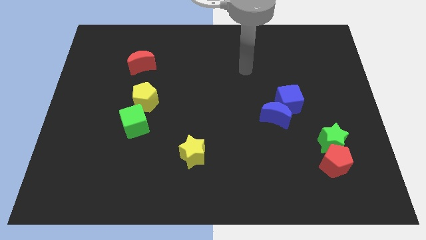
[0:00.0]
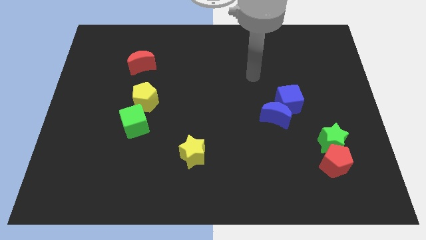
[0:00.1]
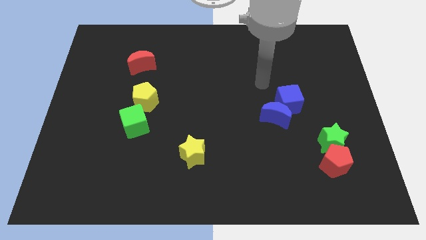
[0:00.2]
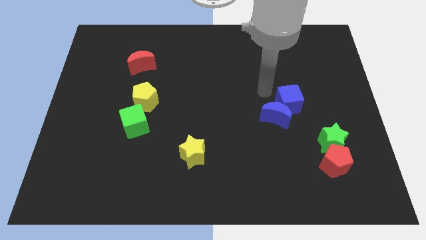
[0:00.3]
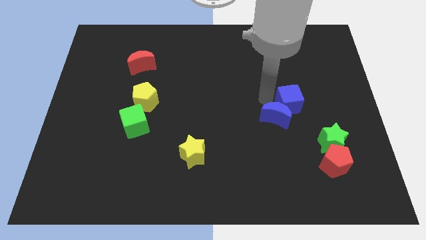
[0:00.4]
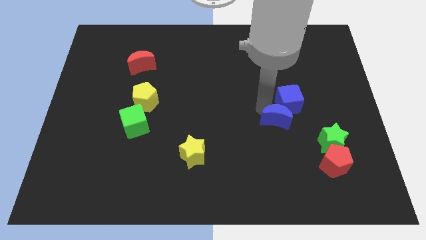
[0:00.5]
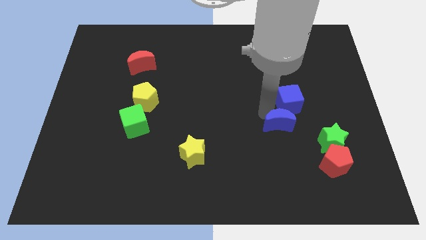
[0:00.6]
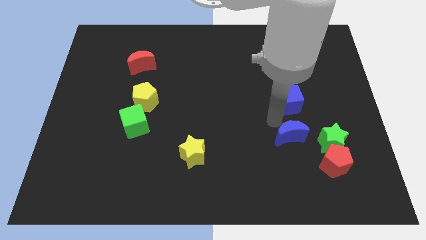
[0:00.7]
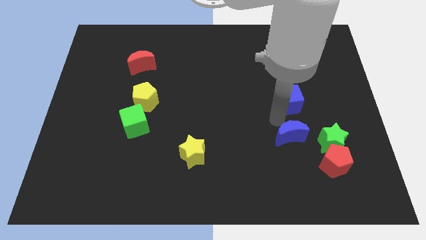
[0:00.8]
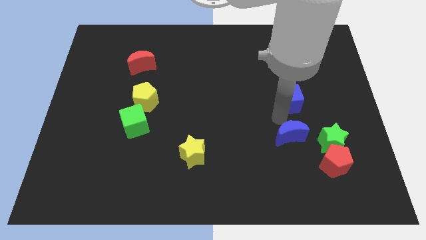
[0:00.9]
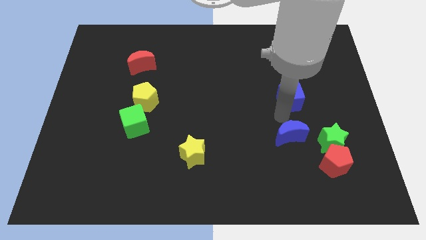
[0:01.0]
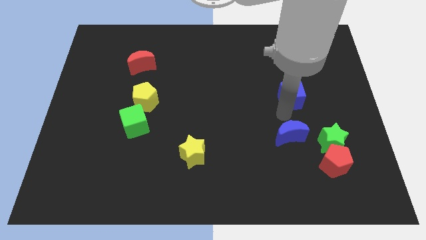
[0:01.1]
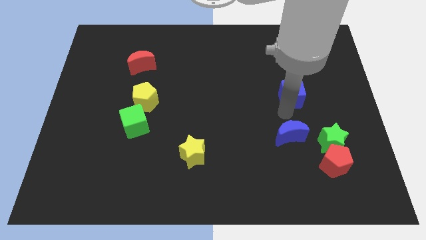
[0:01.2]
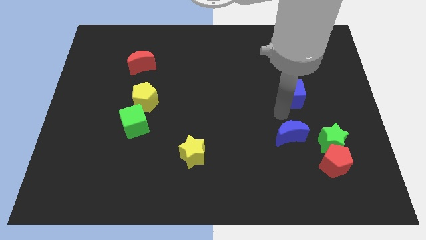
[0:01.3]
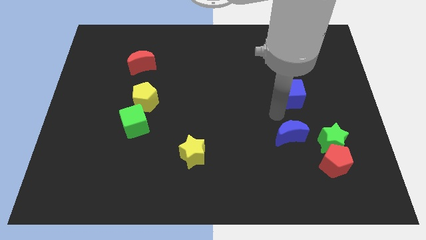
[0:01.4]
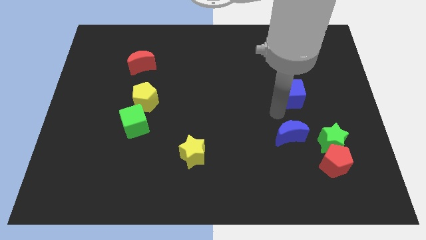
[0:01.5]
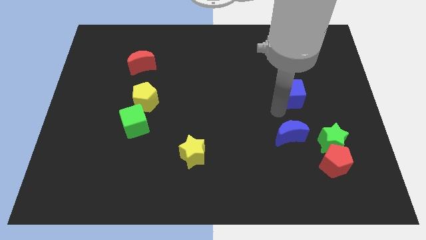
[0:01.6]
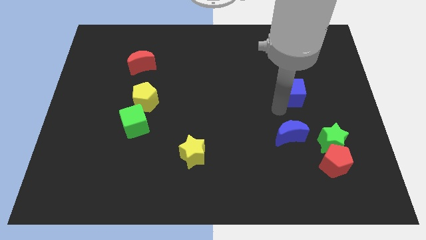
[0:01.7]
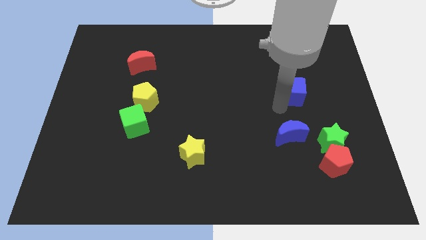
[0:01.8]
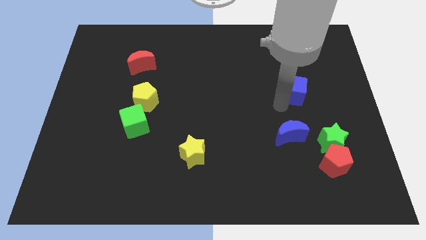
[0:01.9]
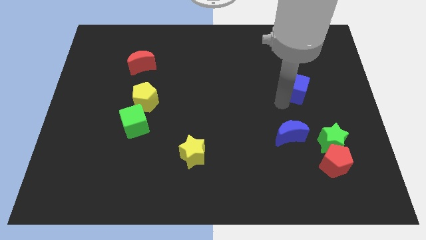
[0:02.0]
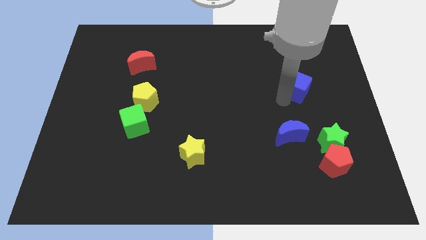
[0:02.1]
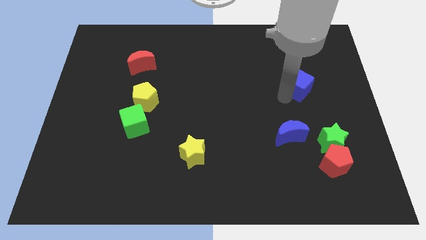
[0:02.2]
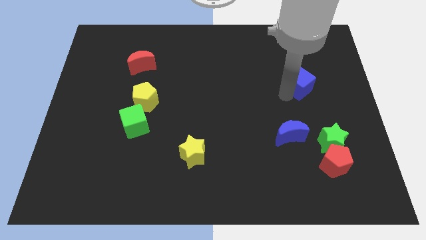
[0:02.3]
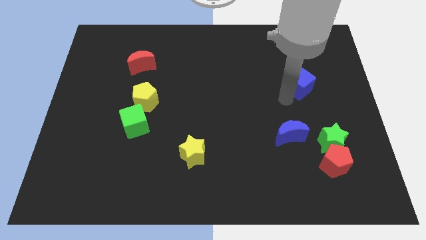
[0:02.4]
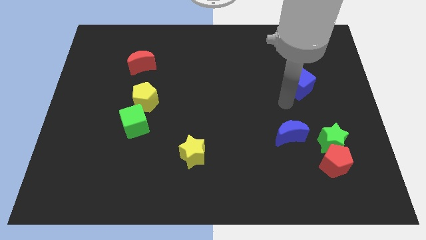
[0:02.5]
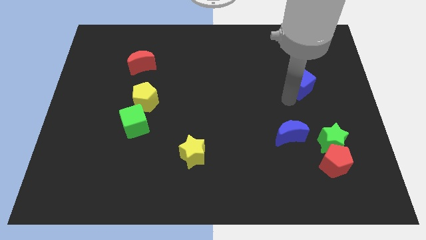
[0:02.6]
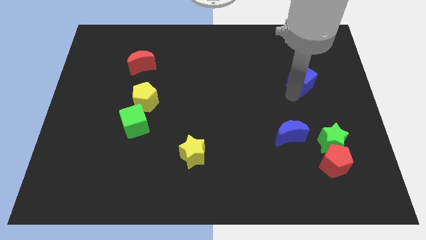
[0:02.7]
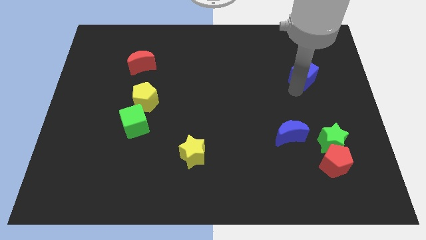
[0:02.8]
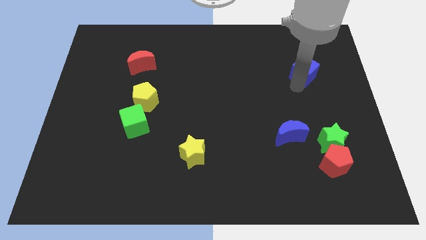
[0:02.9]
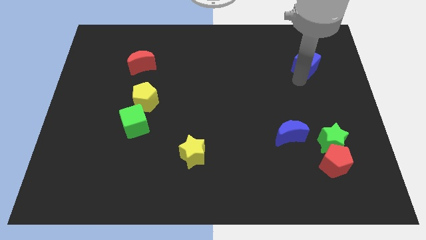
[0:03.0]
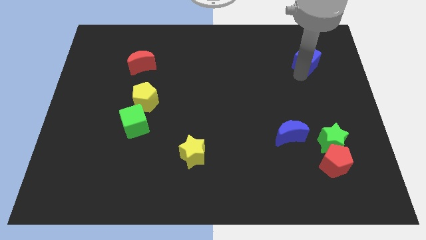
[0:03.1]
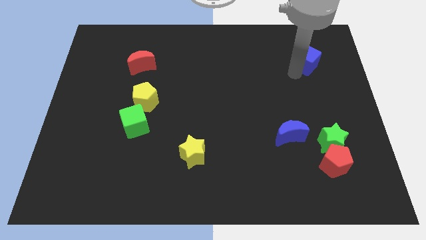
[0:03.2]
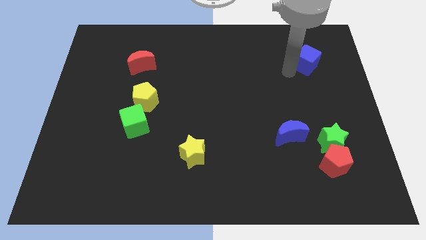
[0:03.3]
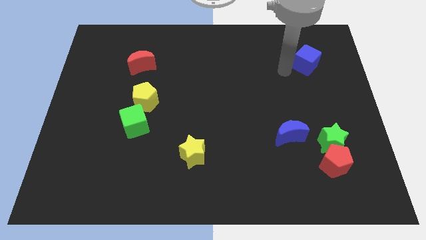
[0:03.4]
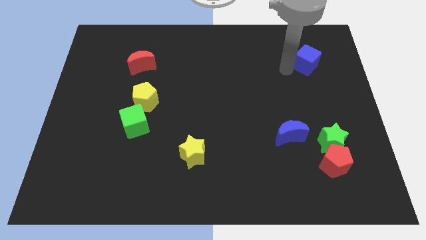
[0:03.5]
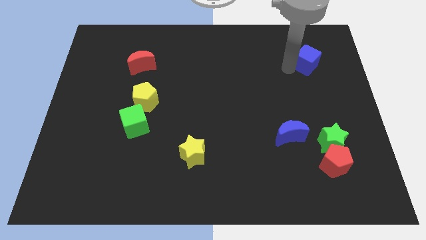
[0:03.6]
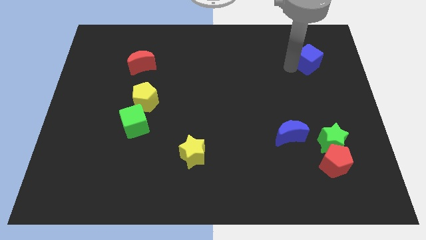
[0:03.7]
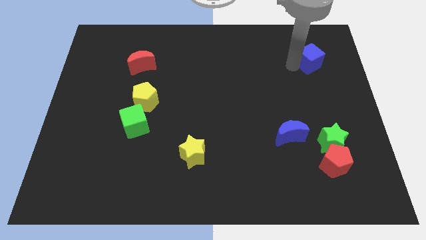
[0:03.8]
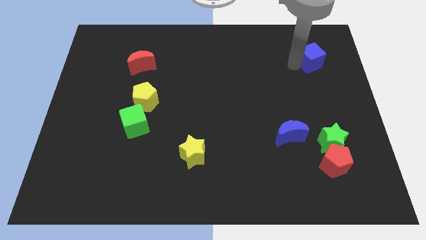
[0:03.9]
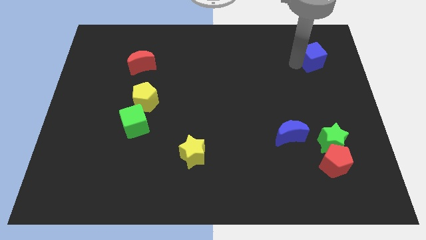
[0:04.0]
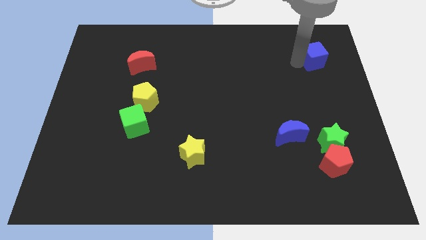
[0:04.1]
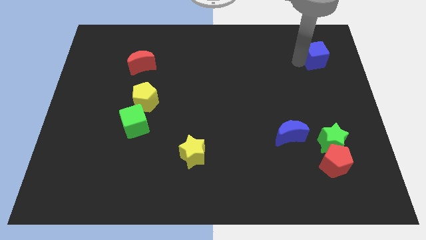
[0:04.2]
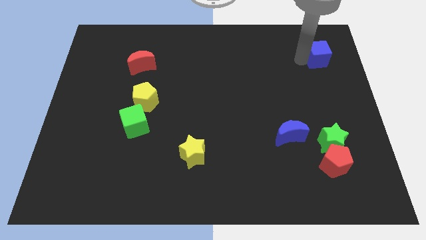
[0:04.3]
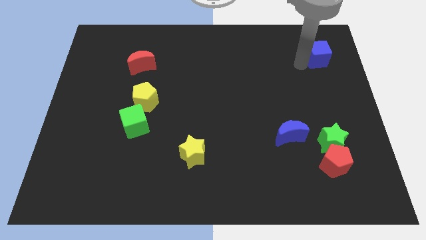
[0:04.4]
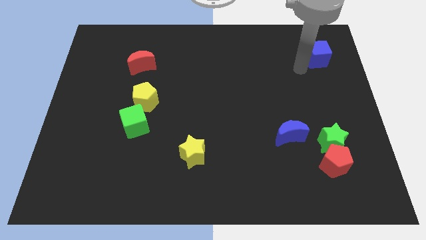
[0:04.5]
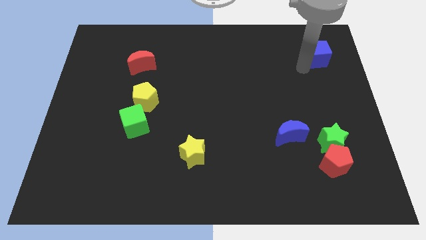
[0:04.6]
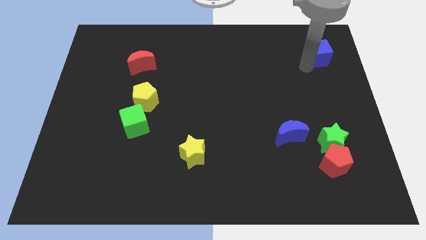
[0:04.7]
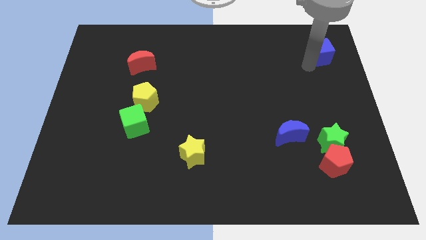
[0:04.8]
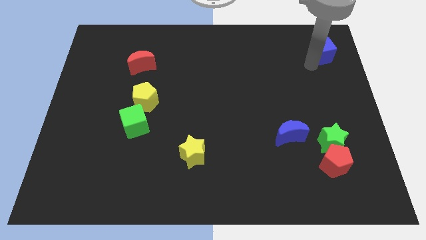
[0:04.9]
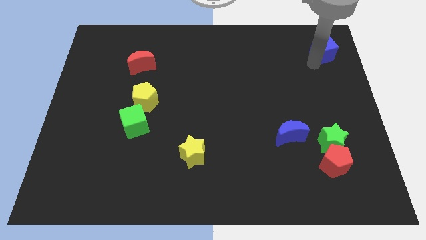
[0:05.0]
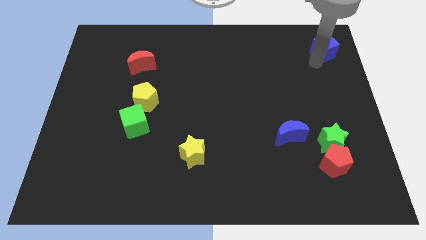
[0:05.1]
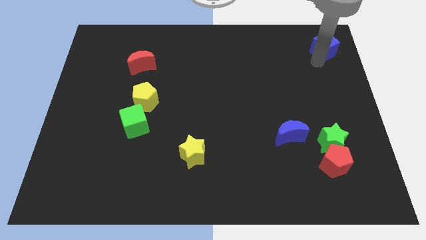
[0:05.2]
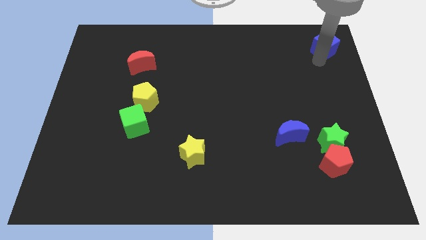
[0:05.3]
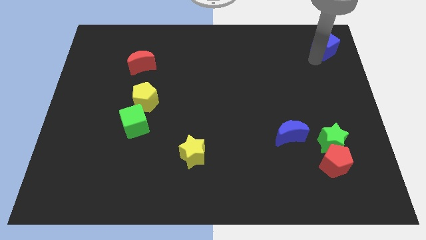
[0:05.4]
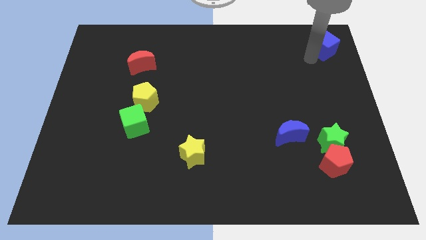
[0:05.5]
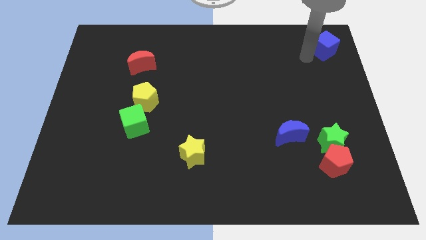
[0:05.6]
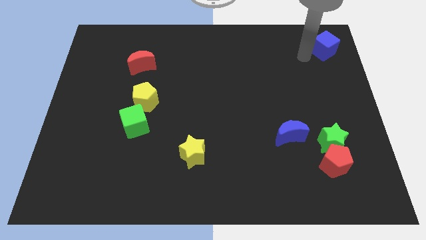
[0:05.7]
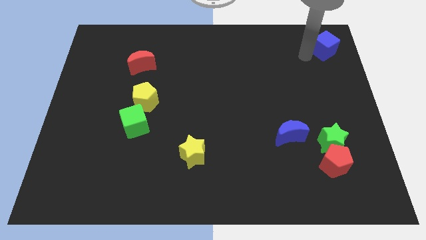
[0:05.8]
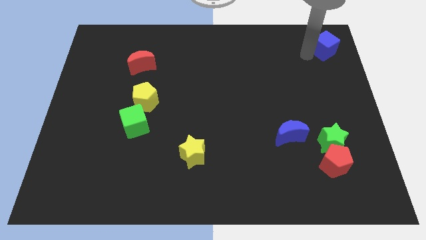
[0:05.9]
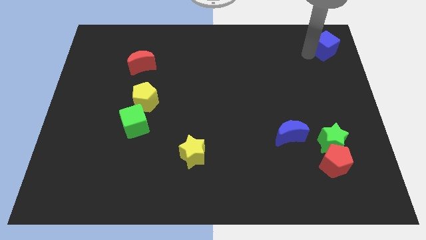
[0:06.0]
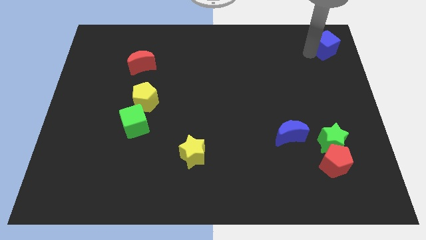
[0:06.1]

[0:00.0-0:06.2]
put the blue cube to the upper right corner
